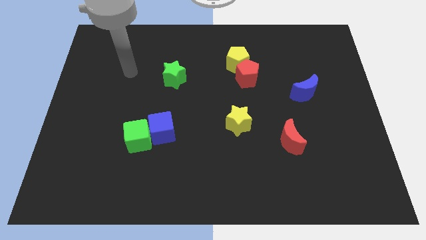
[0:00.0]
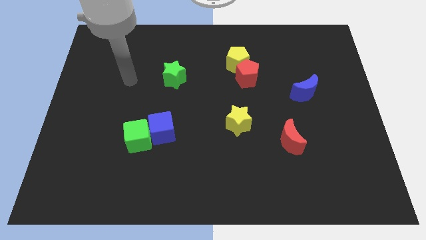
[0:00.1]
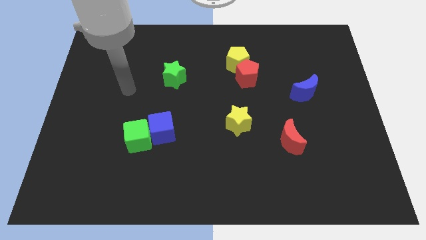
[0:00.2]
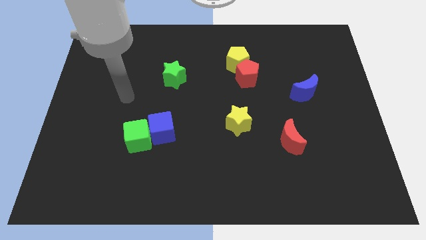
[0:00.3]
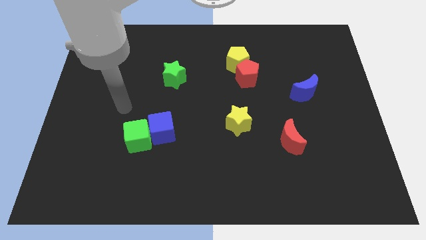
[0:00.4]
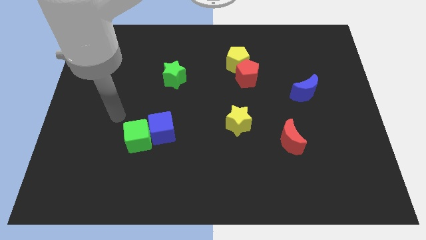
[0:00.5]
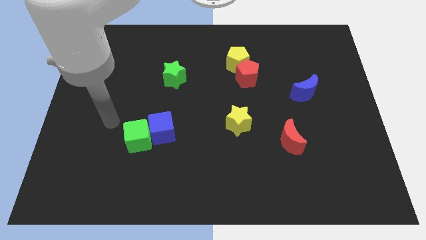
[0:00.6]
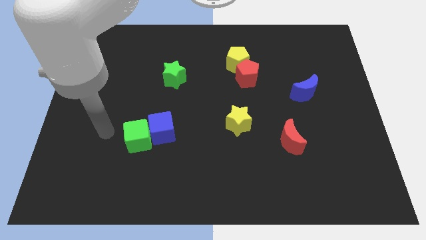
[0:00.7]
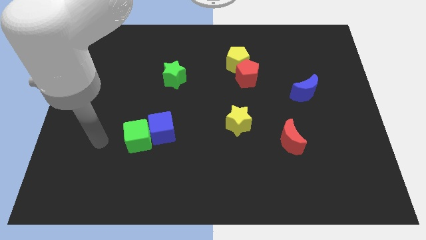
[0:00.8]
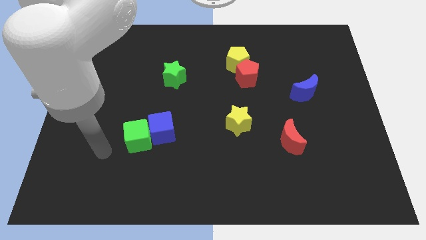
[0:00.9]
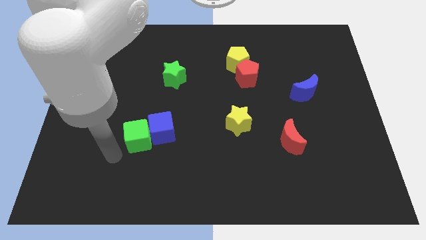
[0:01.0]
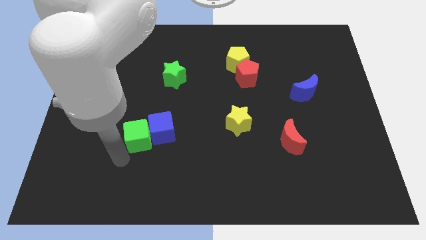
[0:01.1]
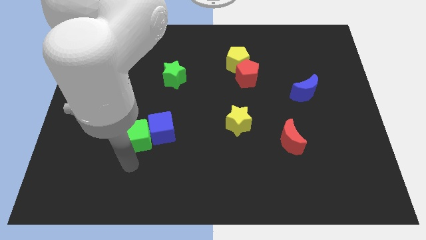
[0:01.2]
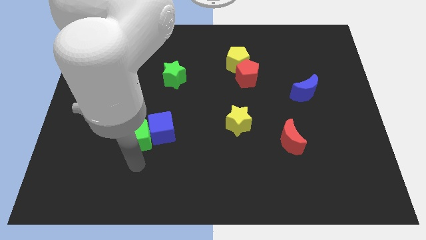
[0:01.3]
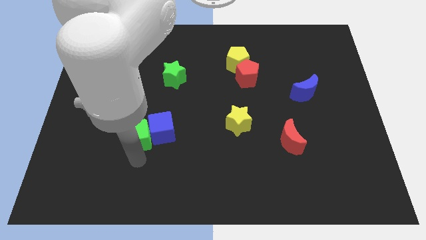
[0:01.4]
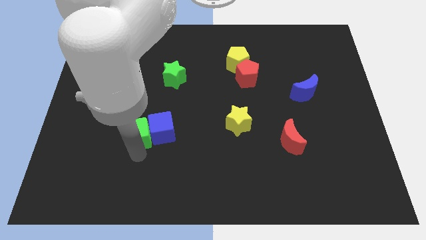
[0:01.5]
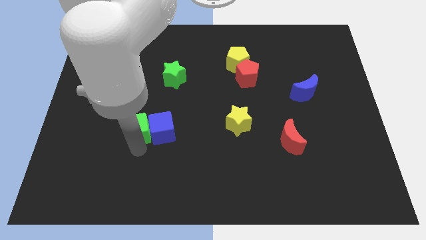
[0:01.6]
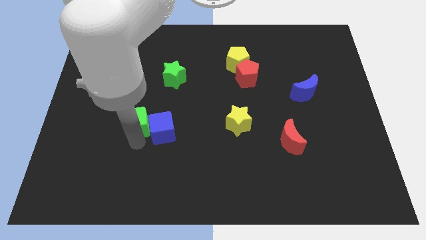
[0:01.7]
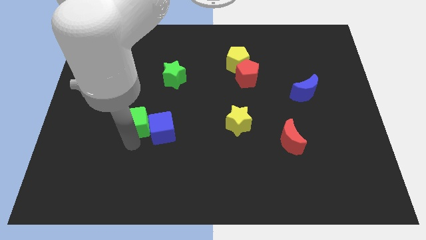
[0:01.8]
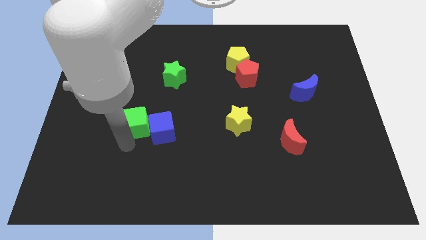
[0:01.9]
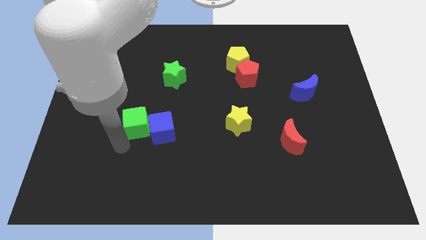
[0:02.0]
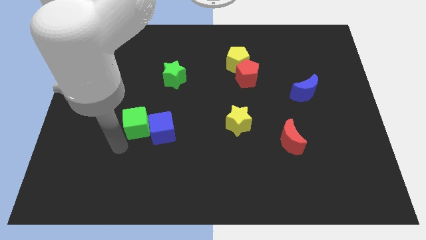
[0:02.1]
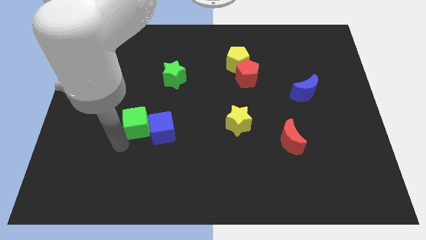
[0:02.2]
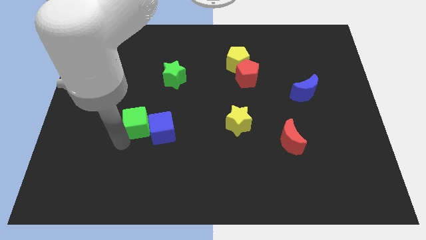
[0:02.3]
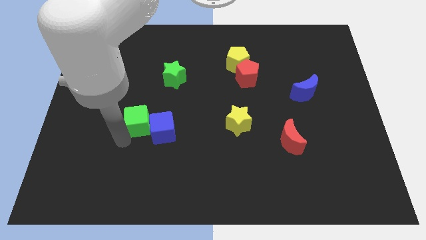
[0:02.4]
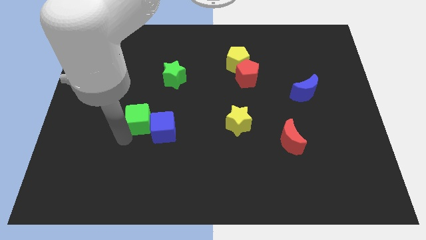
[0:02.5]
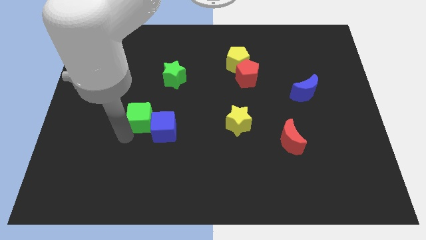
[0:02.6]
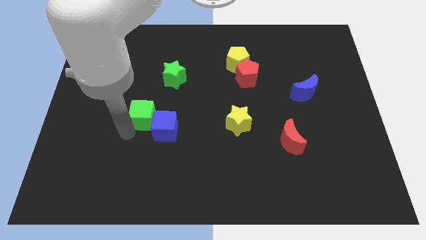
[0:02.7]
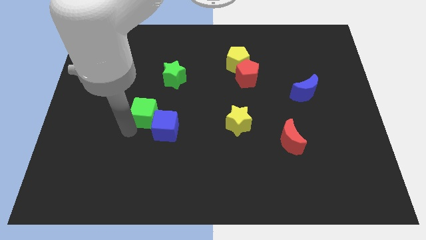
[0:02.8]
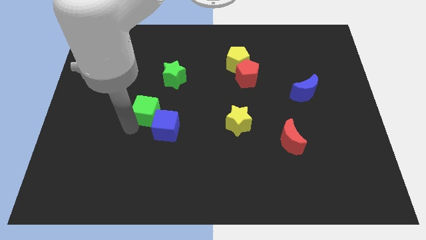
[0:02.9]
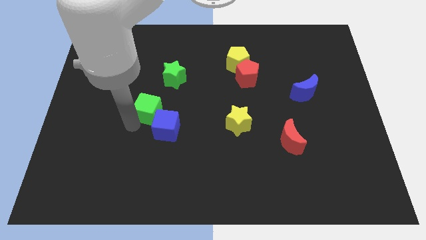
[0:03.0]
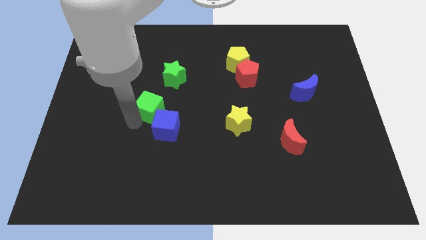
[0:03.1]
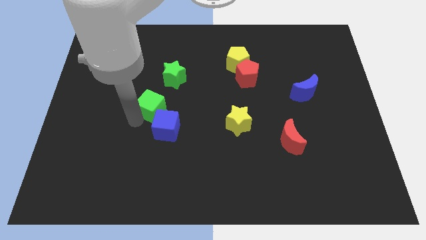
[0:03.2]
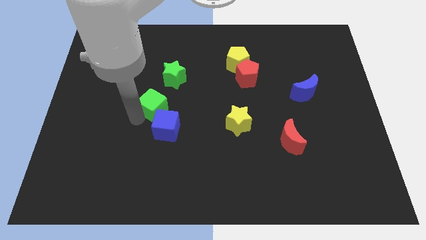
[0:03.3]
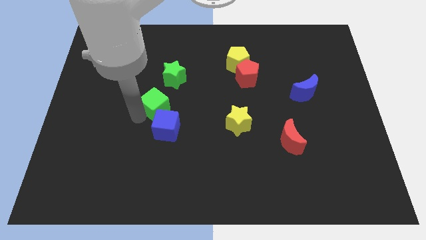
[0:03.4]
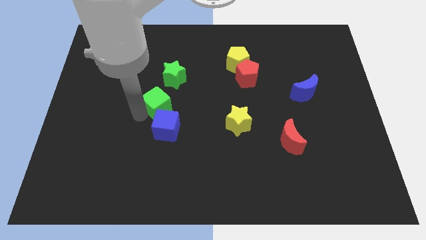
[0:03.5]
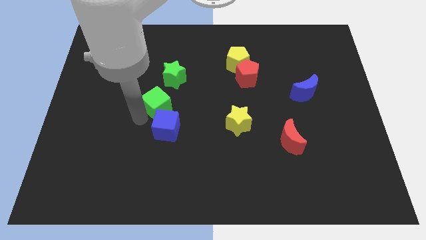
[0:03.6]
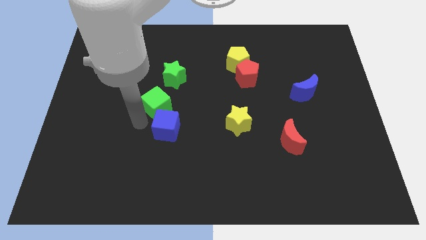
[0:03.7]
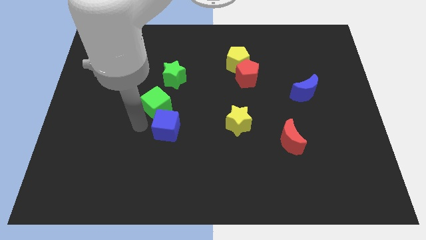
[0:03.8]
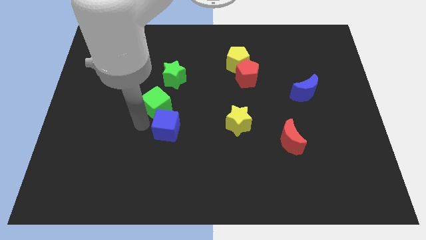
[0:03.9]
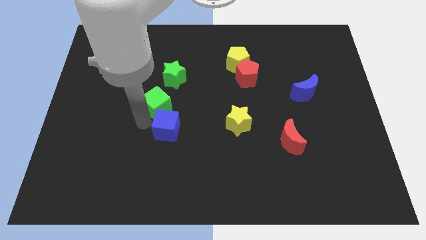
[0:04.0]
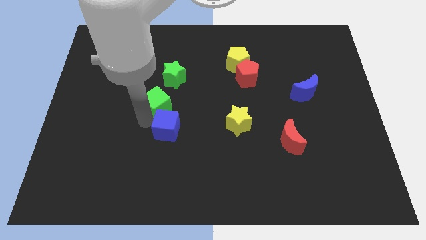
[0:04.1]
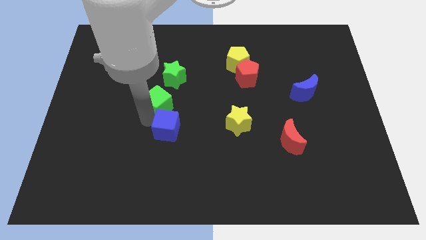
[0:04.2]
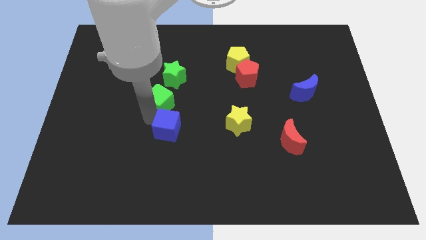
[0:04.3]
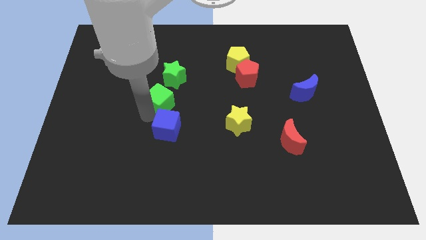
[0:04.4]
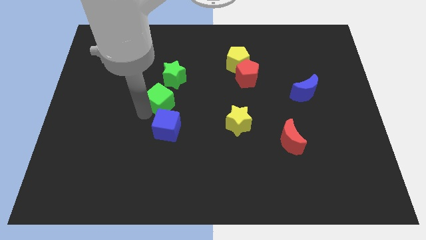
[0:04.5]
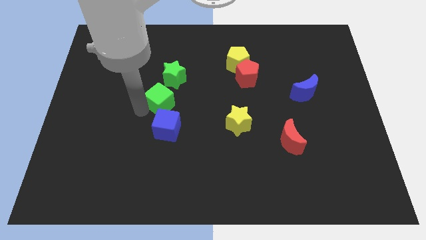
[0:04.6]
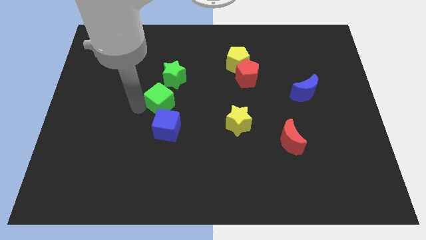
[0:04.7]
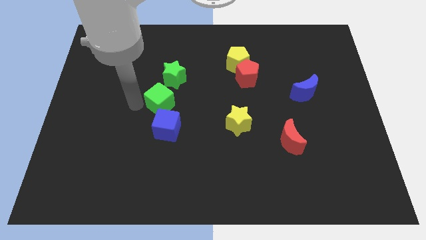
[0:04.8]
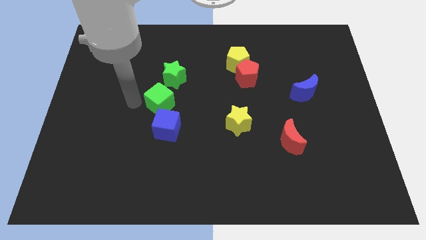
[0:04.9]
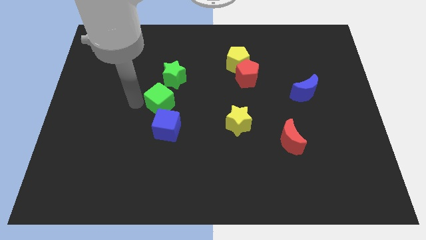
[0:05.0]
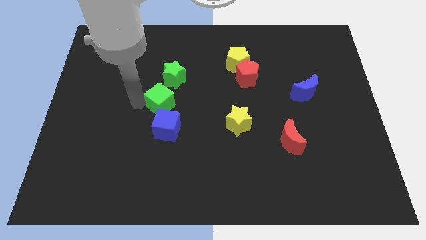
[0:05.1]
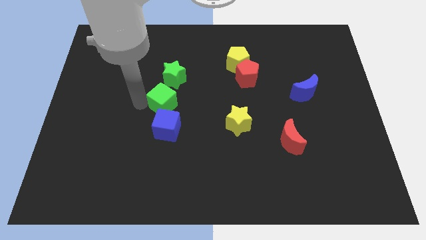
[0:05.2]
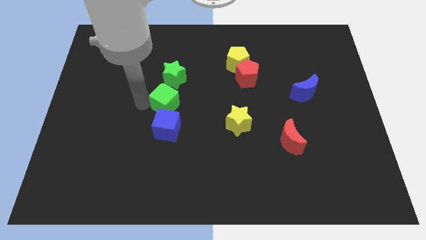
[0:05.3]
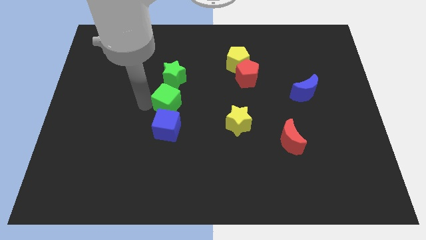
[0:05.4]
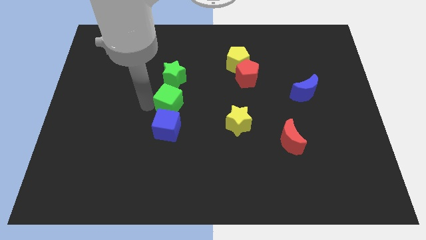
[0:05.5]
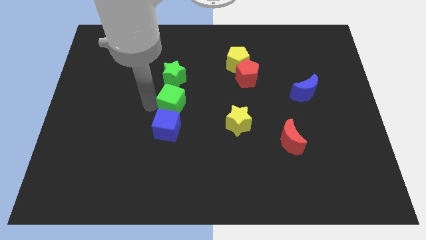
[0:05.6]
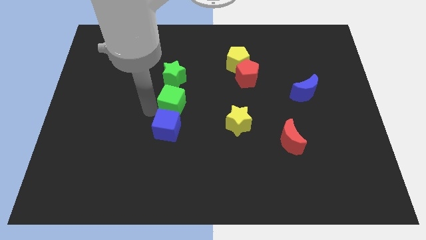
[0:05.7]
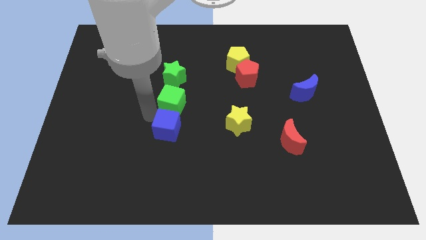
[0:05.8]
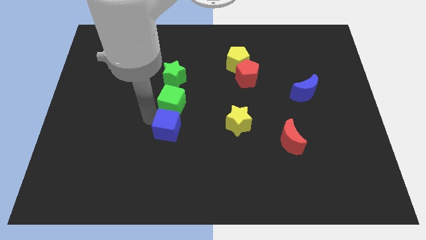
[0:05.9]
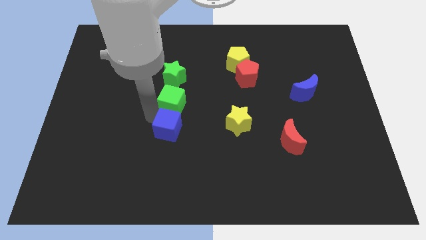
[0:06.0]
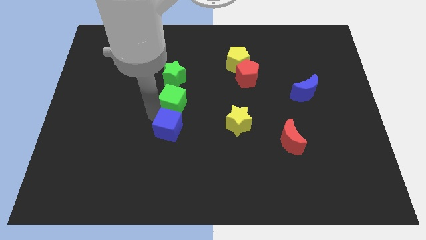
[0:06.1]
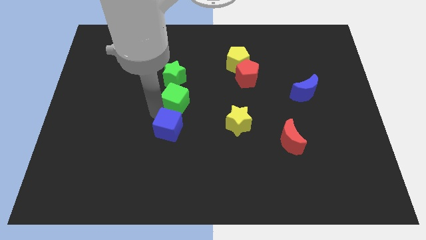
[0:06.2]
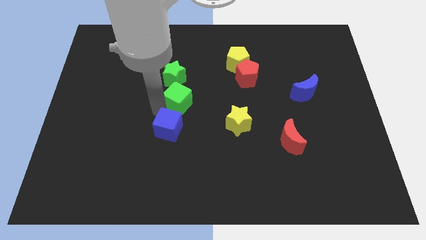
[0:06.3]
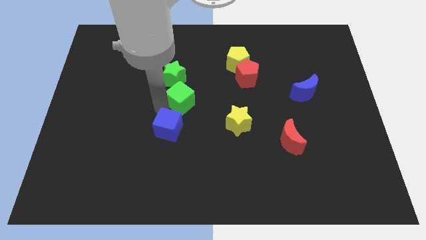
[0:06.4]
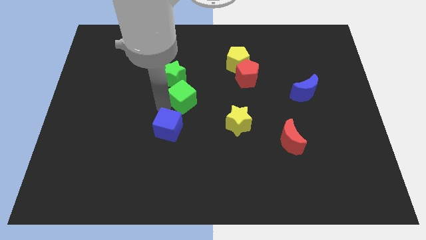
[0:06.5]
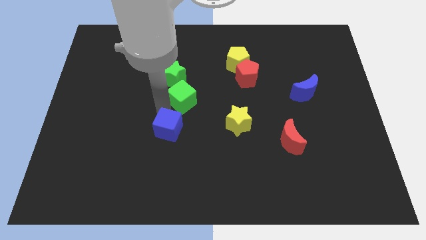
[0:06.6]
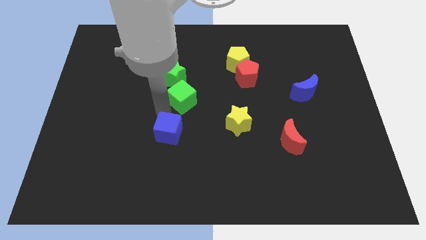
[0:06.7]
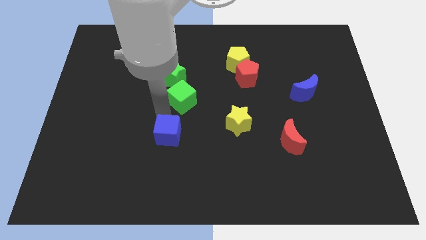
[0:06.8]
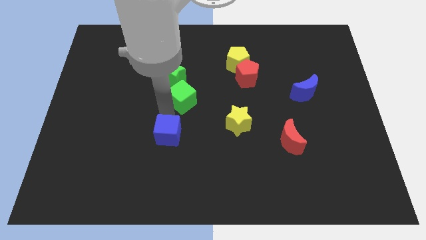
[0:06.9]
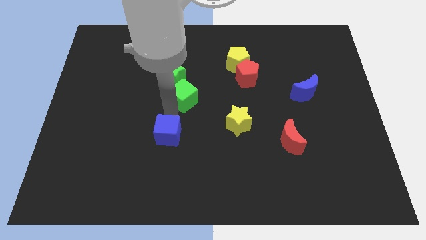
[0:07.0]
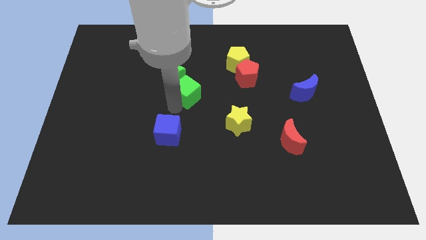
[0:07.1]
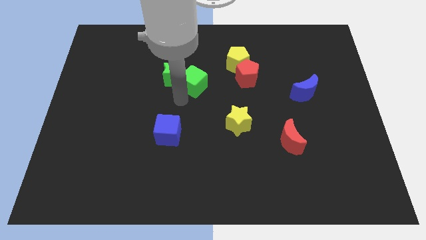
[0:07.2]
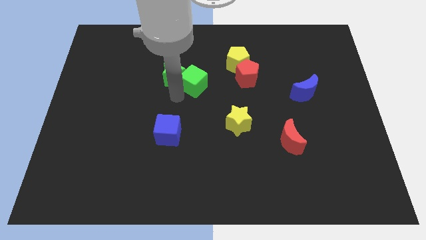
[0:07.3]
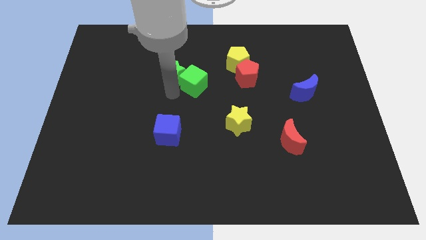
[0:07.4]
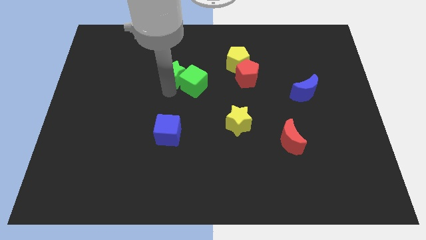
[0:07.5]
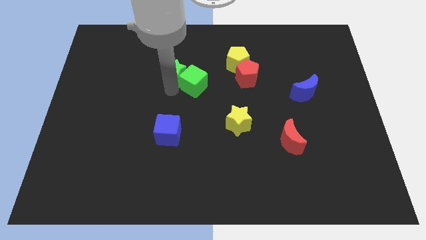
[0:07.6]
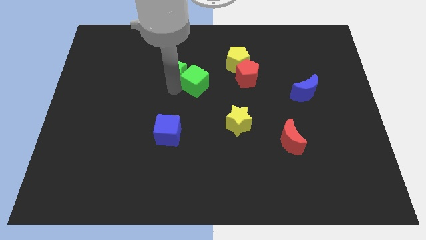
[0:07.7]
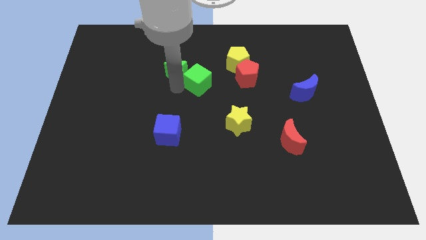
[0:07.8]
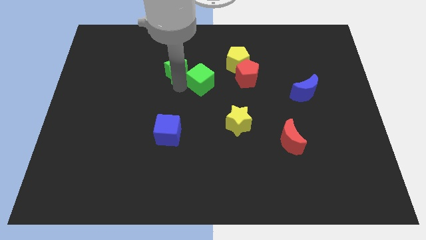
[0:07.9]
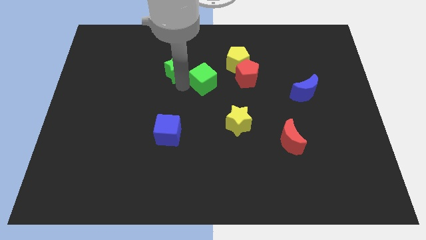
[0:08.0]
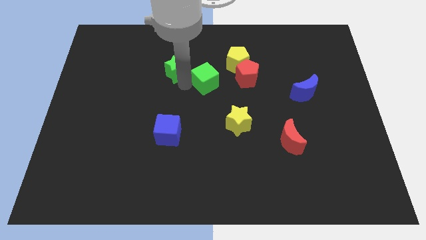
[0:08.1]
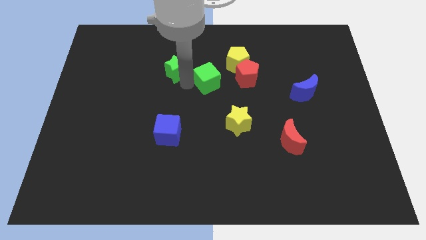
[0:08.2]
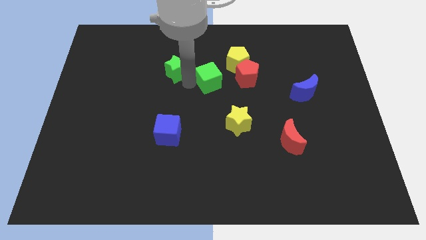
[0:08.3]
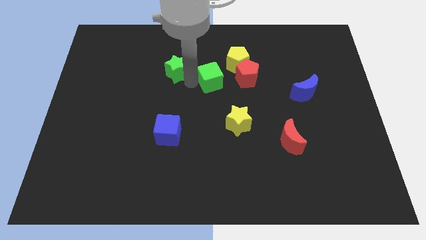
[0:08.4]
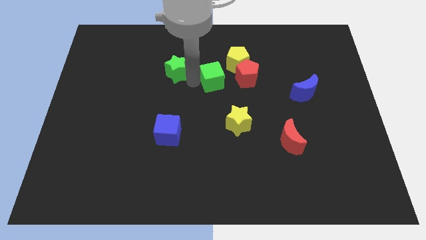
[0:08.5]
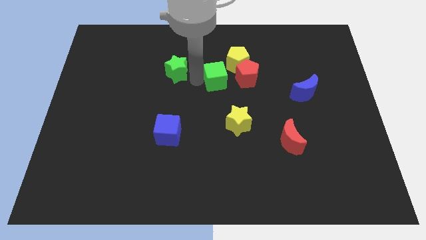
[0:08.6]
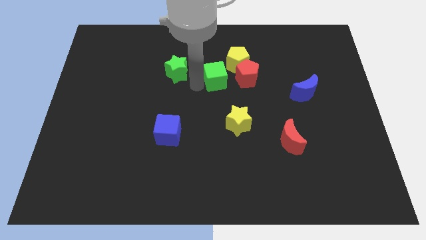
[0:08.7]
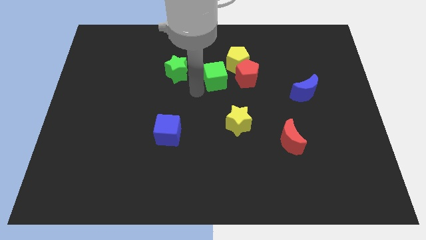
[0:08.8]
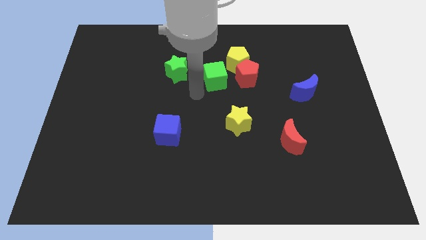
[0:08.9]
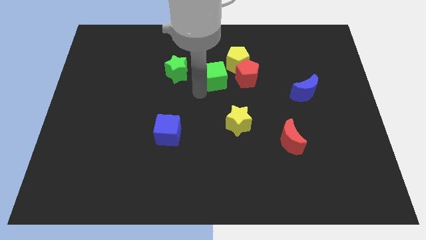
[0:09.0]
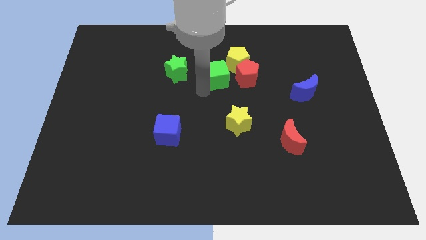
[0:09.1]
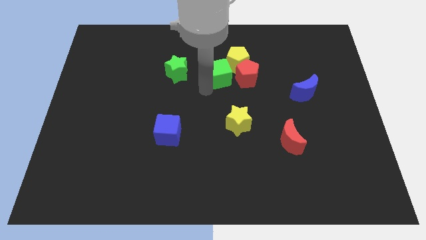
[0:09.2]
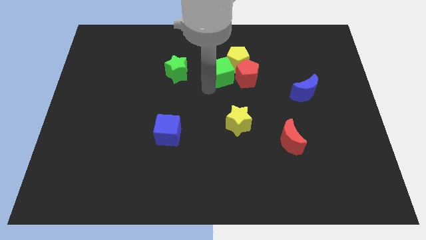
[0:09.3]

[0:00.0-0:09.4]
push the green cube towards the yellow pentagon
